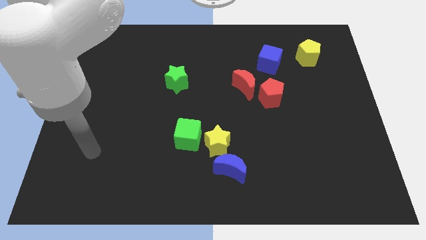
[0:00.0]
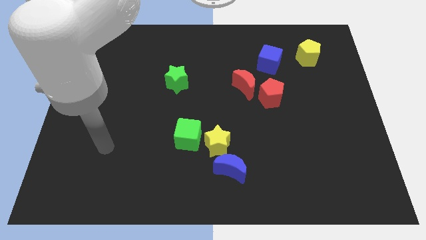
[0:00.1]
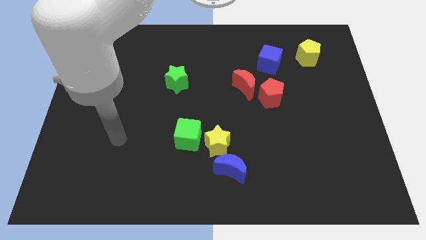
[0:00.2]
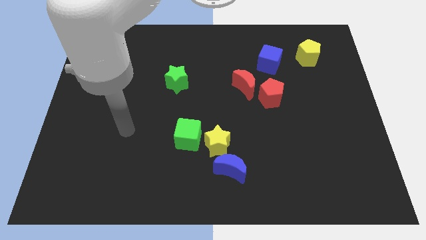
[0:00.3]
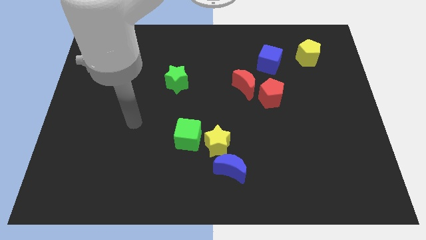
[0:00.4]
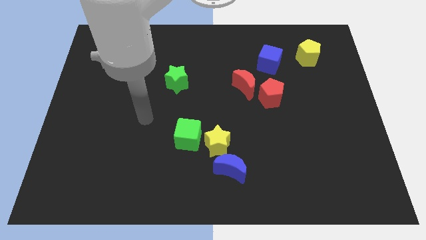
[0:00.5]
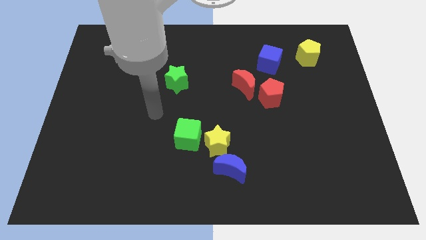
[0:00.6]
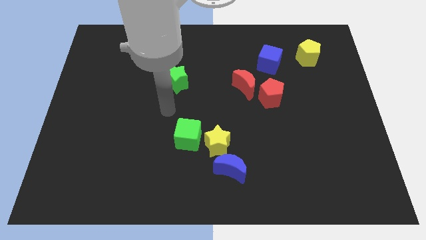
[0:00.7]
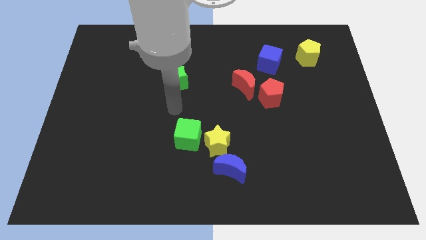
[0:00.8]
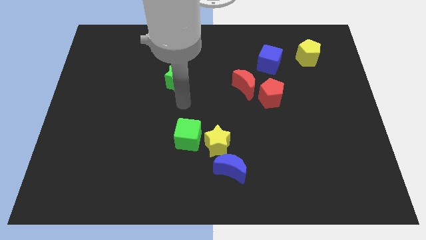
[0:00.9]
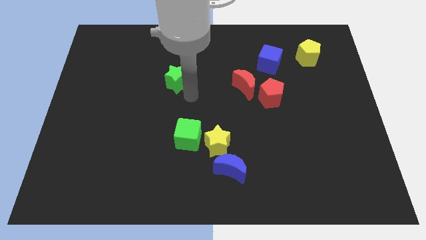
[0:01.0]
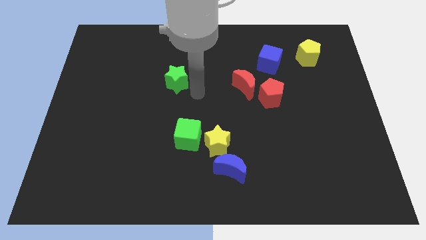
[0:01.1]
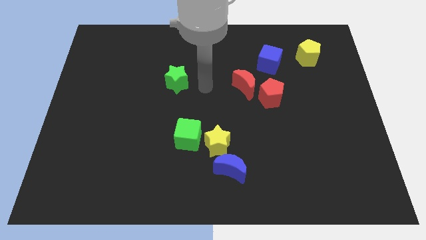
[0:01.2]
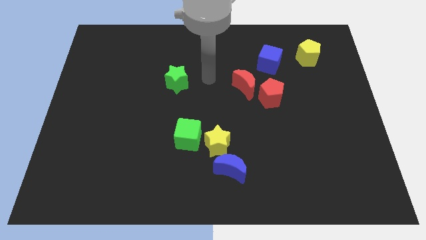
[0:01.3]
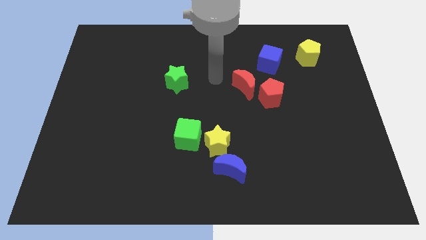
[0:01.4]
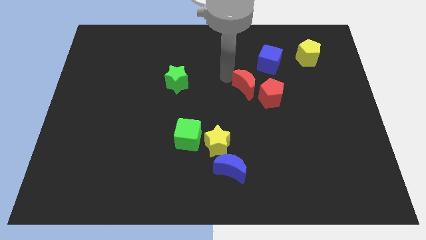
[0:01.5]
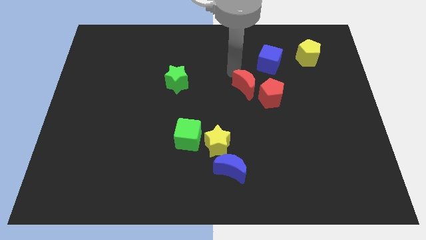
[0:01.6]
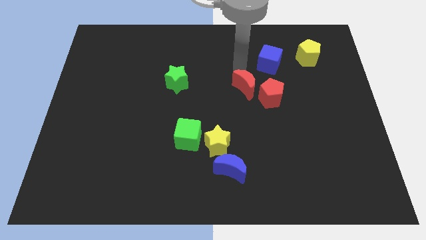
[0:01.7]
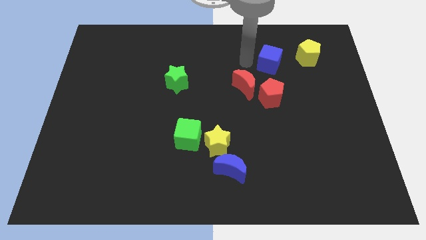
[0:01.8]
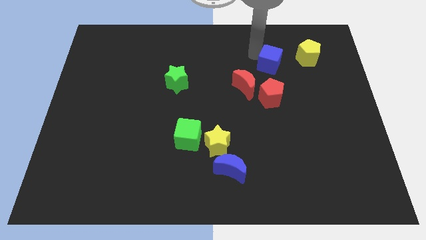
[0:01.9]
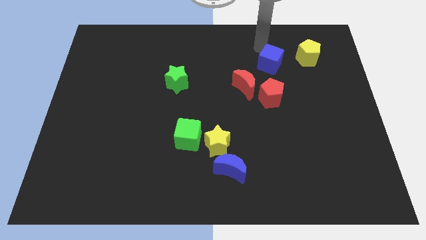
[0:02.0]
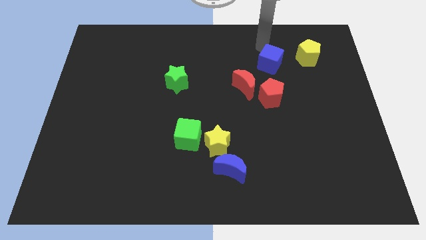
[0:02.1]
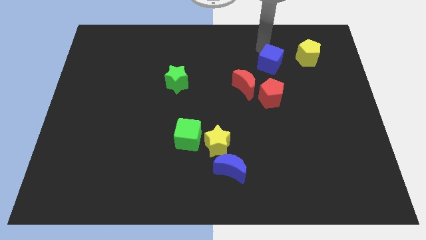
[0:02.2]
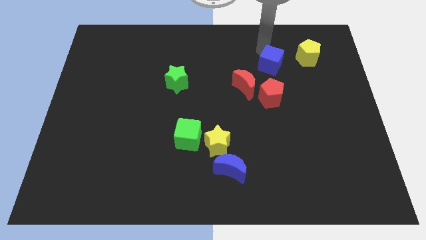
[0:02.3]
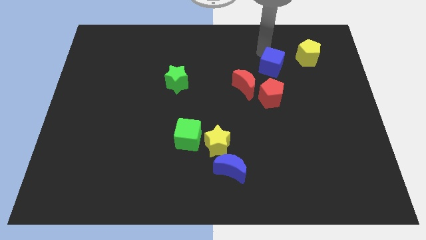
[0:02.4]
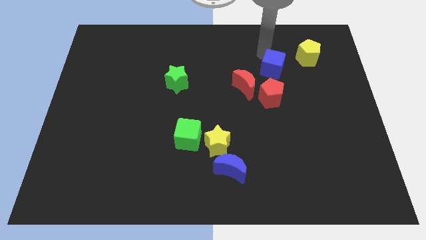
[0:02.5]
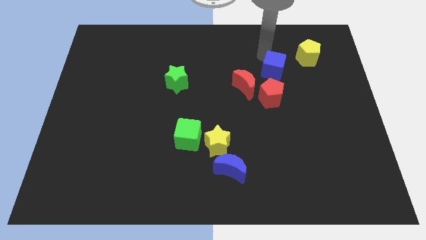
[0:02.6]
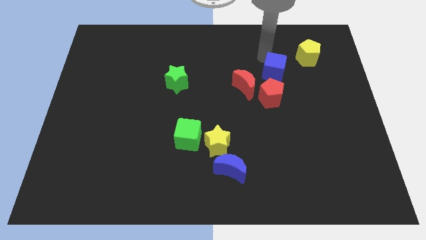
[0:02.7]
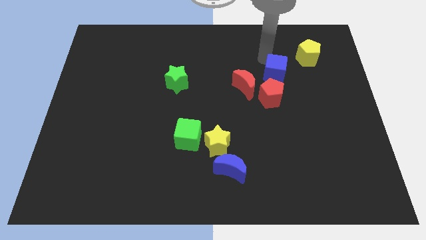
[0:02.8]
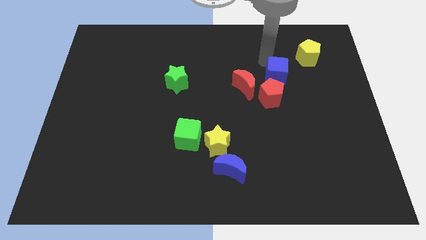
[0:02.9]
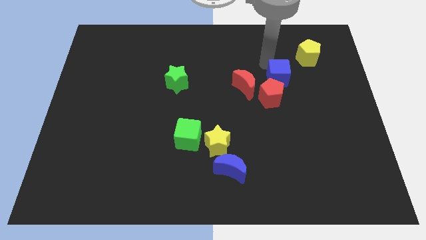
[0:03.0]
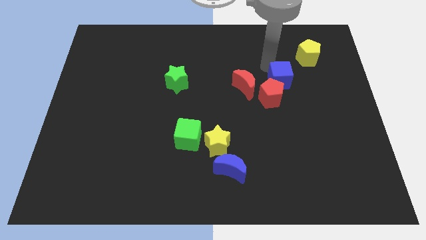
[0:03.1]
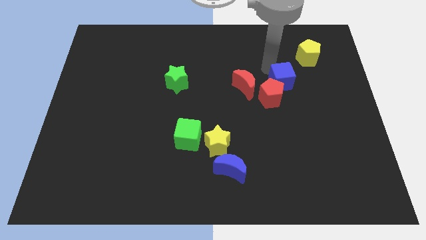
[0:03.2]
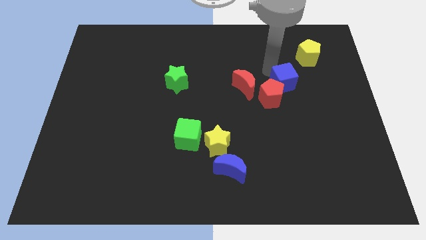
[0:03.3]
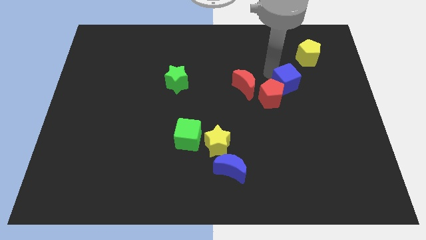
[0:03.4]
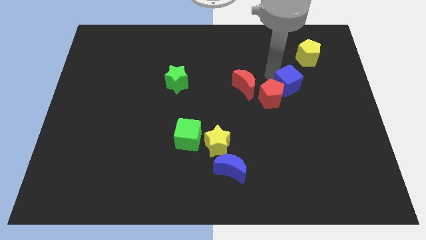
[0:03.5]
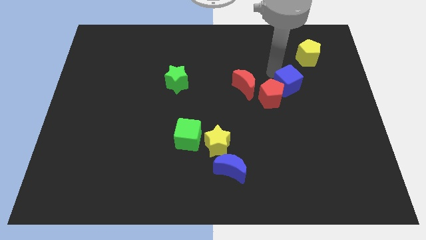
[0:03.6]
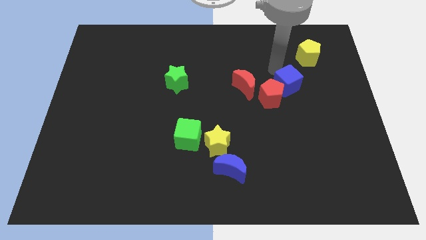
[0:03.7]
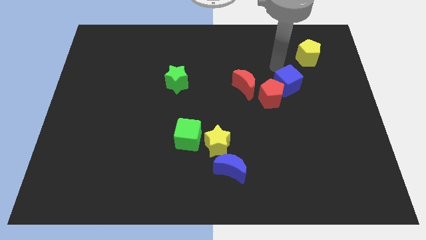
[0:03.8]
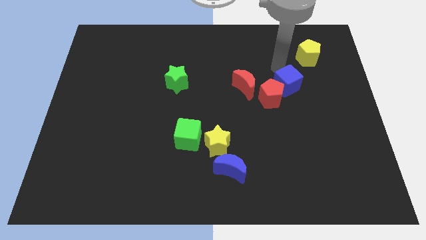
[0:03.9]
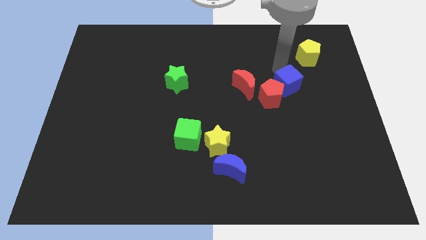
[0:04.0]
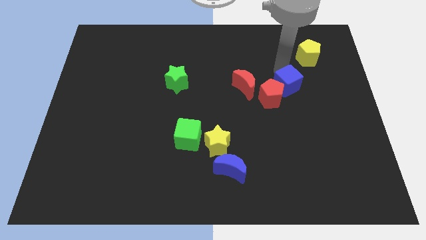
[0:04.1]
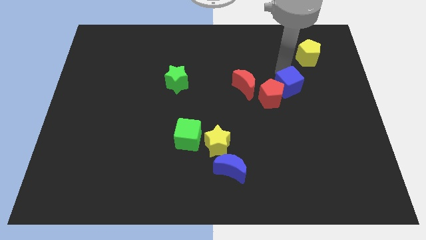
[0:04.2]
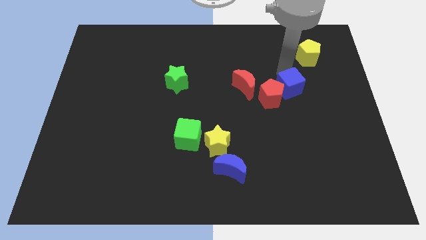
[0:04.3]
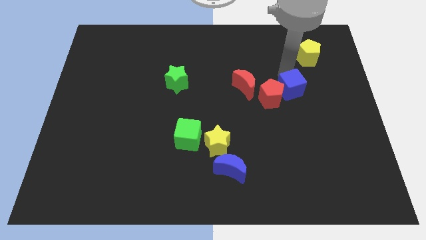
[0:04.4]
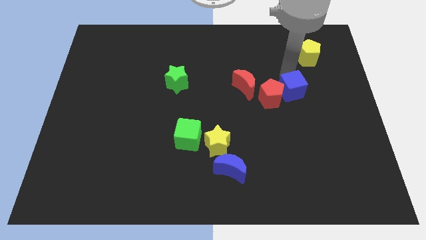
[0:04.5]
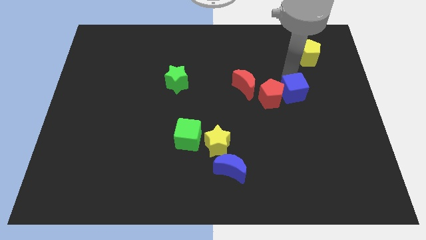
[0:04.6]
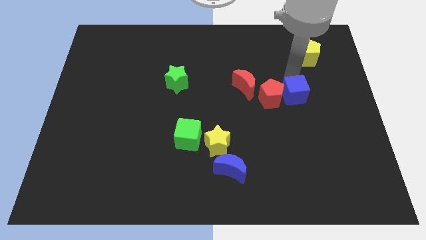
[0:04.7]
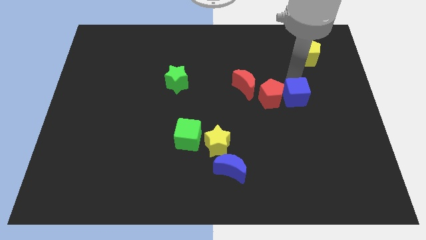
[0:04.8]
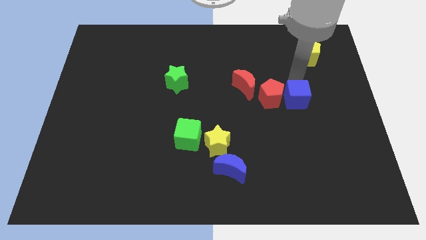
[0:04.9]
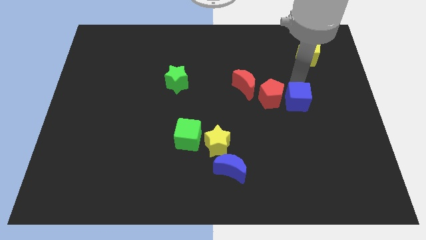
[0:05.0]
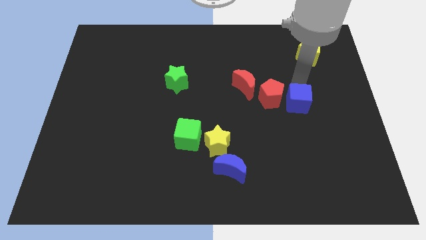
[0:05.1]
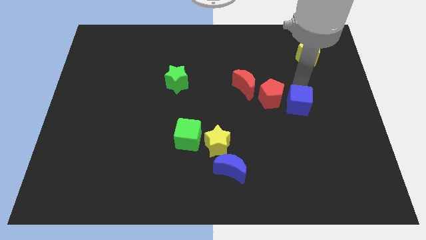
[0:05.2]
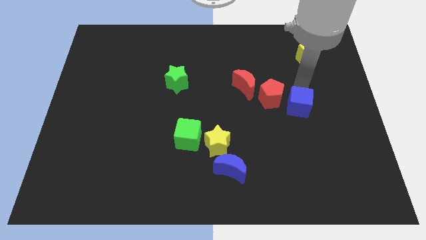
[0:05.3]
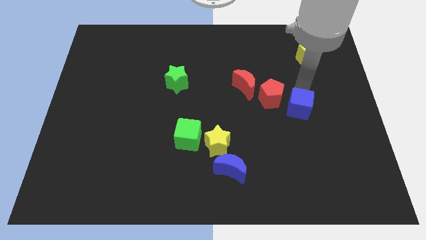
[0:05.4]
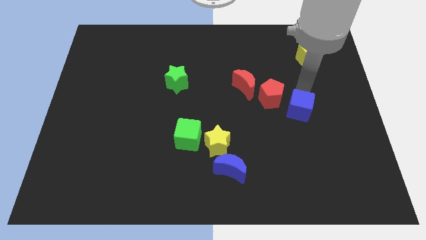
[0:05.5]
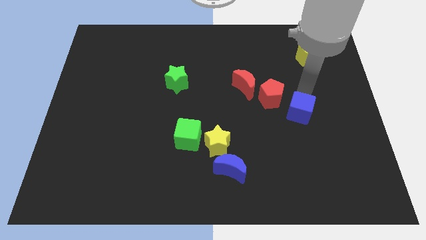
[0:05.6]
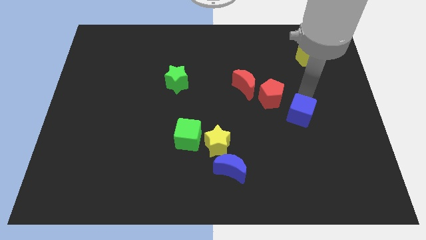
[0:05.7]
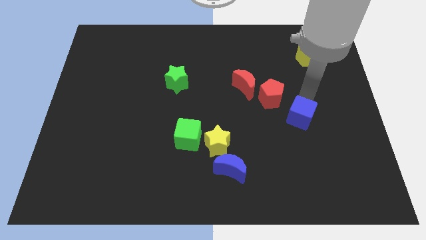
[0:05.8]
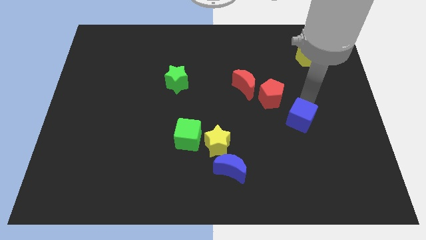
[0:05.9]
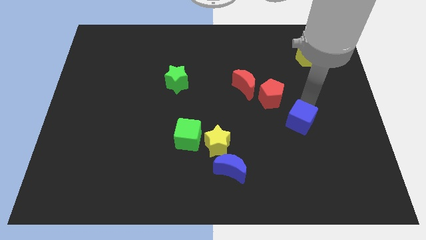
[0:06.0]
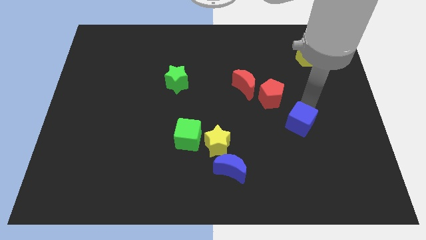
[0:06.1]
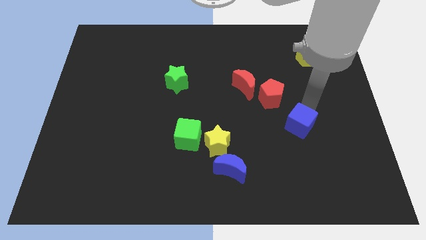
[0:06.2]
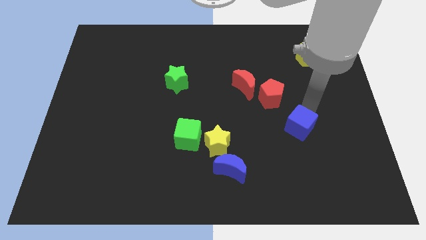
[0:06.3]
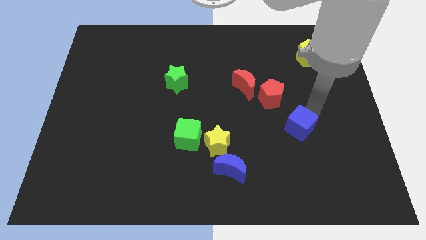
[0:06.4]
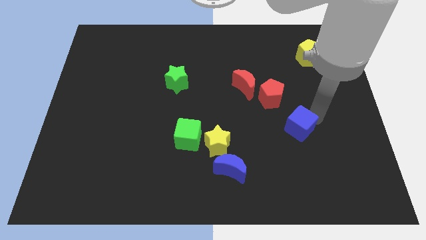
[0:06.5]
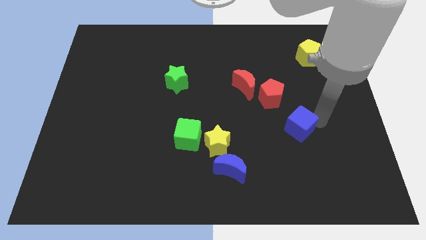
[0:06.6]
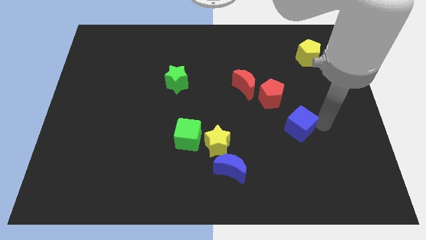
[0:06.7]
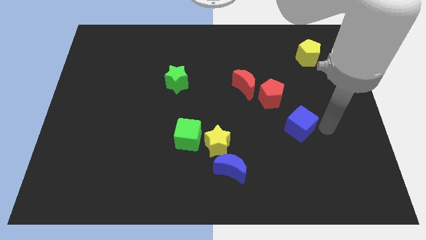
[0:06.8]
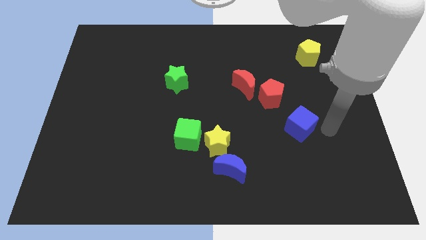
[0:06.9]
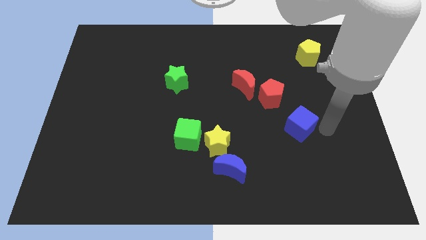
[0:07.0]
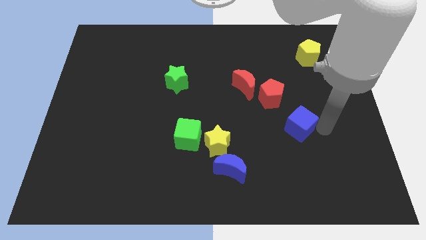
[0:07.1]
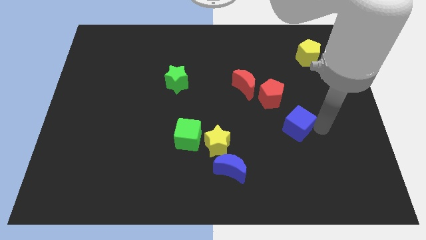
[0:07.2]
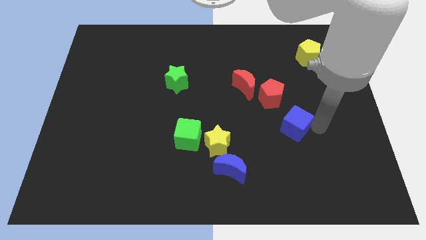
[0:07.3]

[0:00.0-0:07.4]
move the blue cube down
